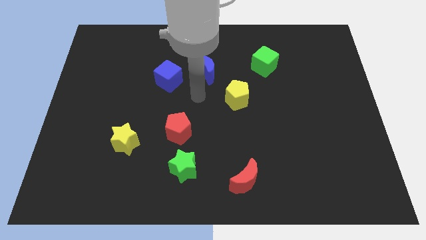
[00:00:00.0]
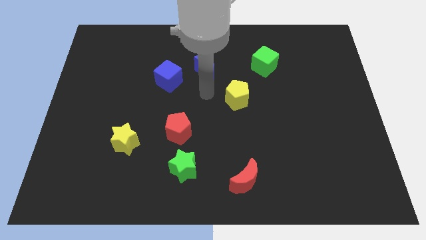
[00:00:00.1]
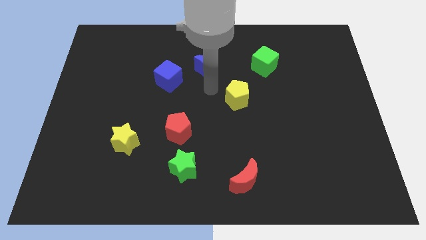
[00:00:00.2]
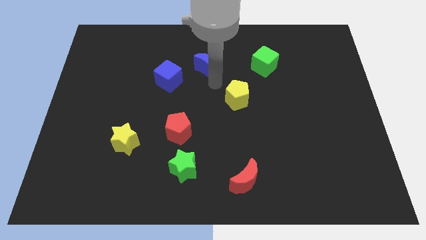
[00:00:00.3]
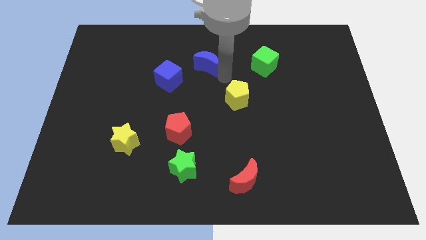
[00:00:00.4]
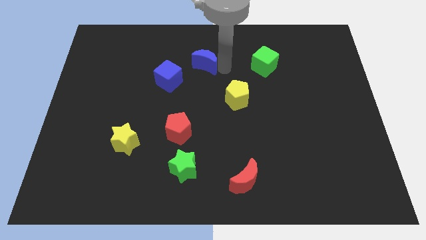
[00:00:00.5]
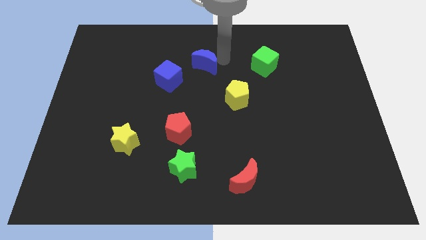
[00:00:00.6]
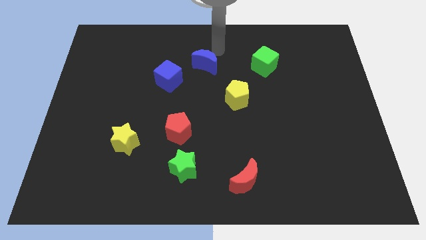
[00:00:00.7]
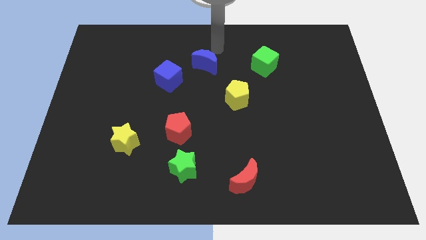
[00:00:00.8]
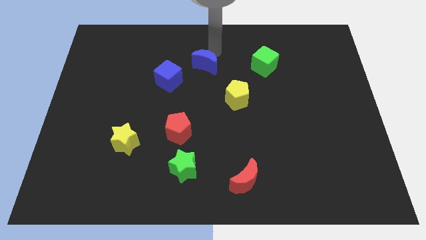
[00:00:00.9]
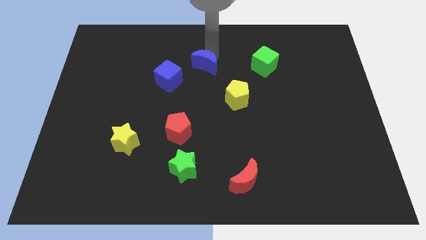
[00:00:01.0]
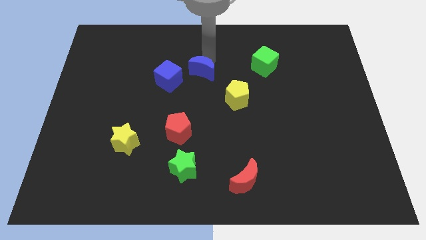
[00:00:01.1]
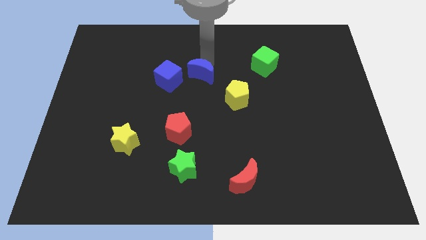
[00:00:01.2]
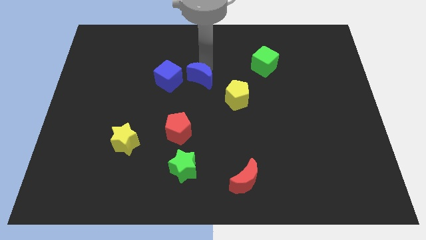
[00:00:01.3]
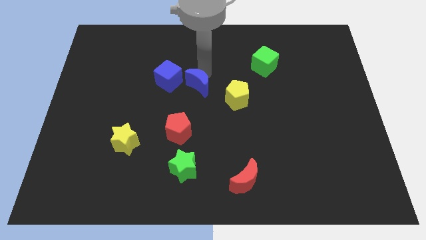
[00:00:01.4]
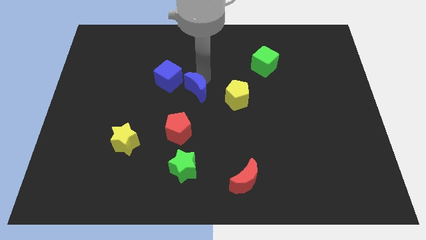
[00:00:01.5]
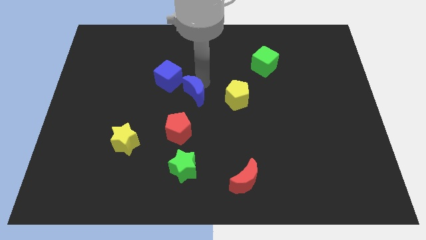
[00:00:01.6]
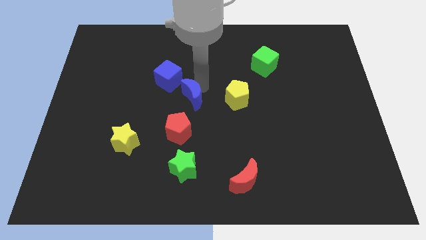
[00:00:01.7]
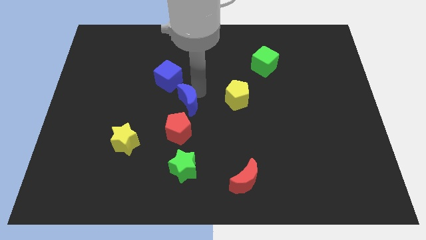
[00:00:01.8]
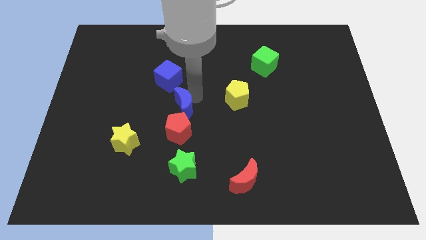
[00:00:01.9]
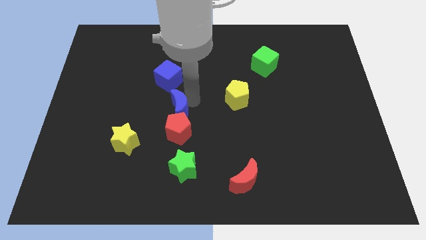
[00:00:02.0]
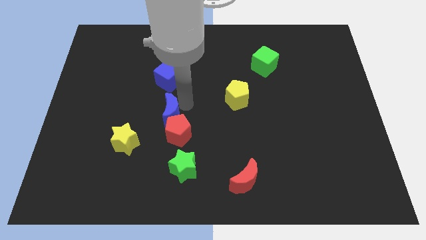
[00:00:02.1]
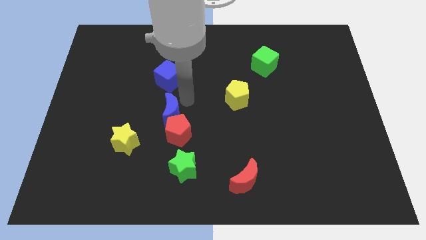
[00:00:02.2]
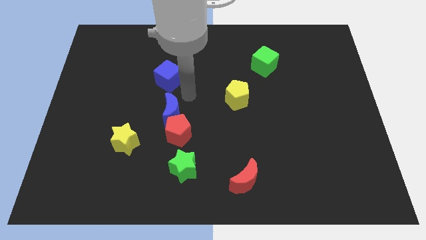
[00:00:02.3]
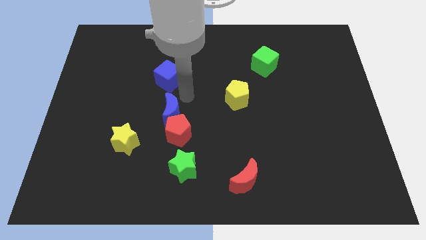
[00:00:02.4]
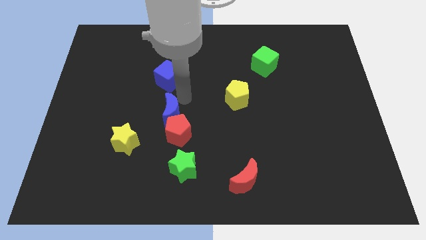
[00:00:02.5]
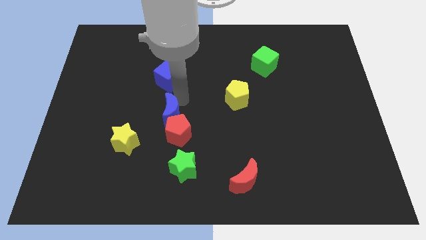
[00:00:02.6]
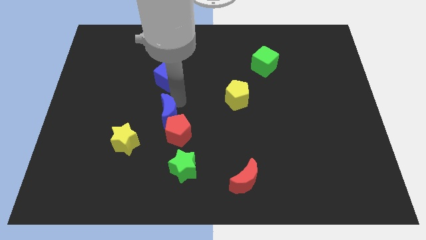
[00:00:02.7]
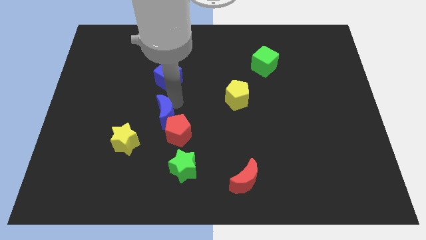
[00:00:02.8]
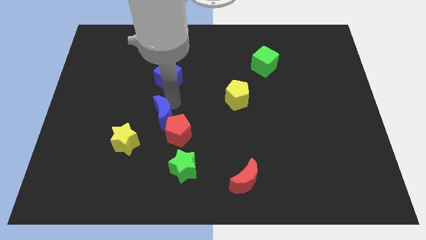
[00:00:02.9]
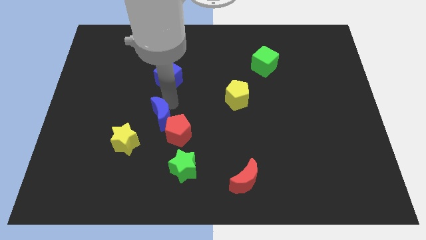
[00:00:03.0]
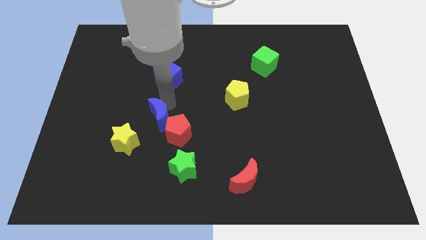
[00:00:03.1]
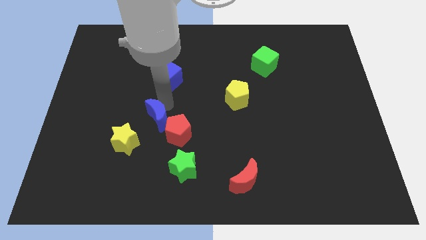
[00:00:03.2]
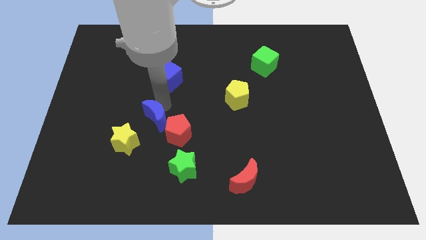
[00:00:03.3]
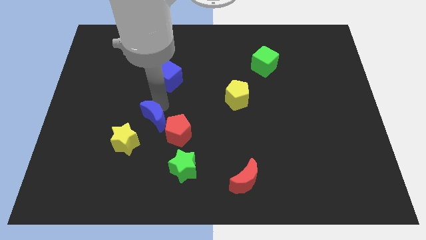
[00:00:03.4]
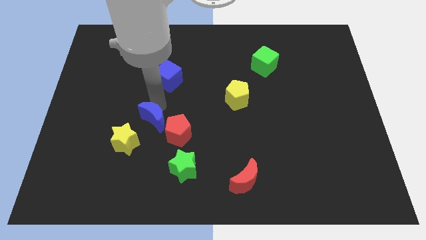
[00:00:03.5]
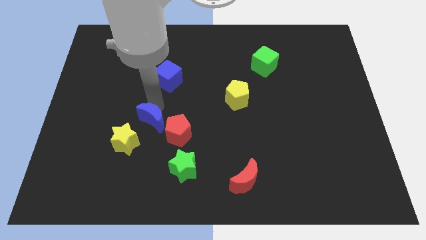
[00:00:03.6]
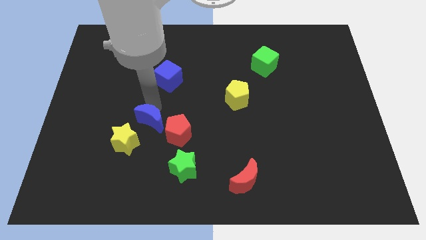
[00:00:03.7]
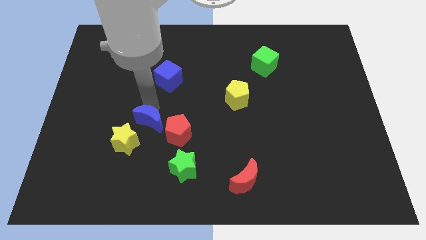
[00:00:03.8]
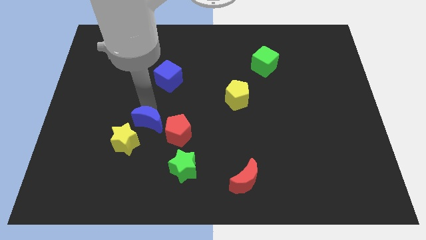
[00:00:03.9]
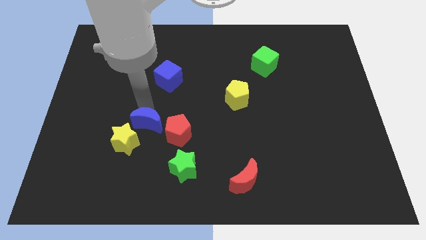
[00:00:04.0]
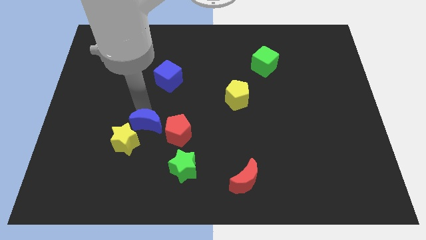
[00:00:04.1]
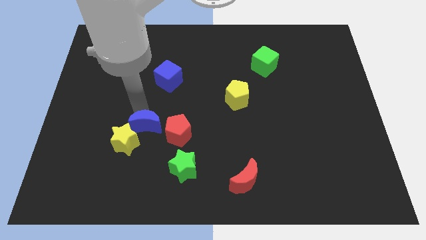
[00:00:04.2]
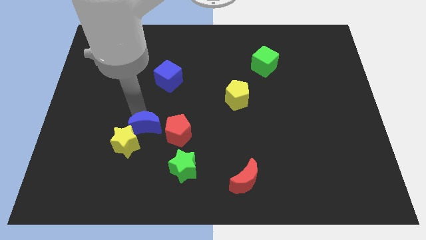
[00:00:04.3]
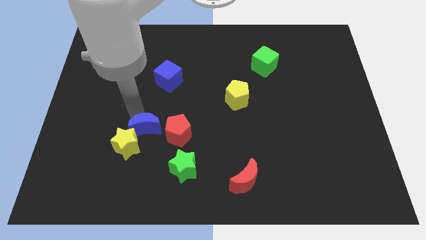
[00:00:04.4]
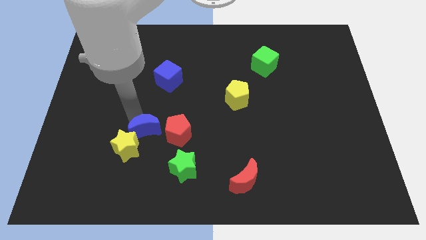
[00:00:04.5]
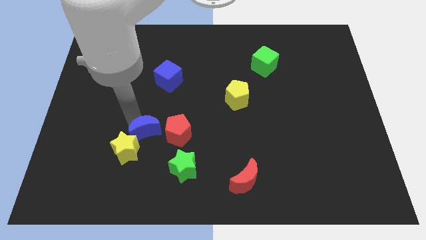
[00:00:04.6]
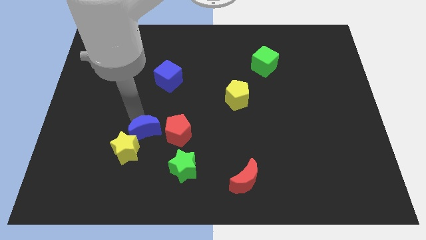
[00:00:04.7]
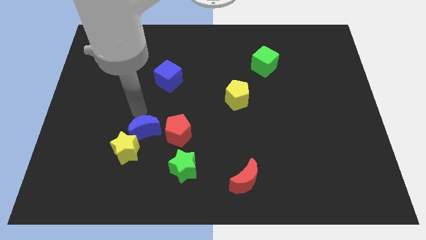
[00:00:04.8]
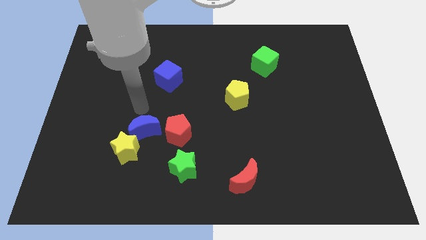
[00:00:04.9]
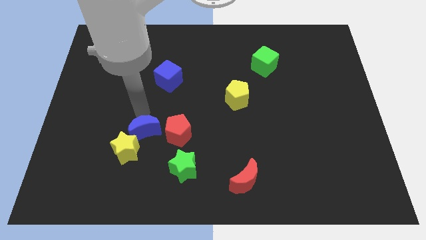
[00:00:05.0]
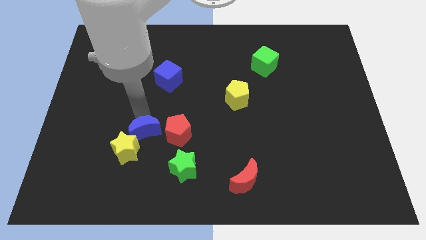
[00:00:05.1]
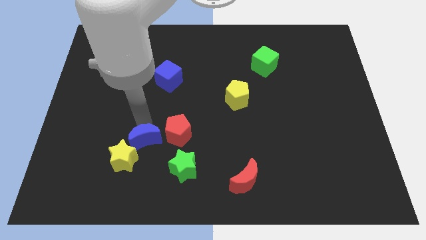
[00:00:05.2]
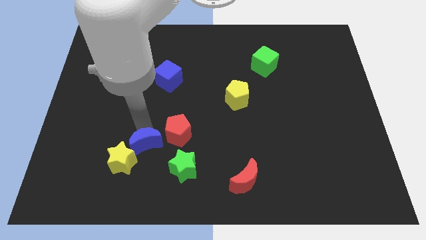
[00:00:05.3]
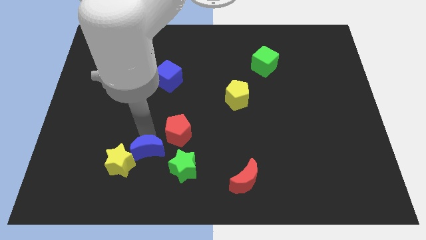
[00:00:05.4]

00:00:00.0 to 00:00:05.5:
slide the blue moon to the left side of the green star

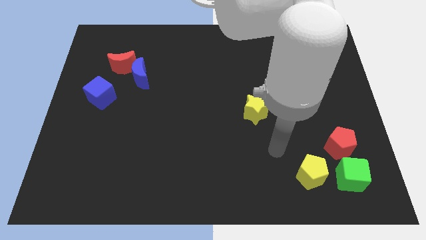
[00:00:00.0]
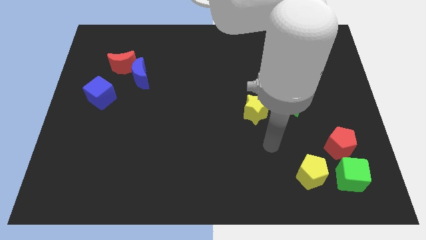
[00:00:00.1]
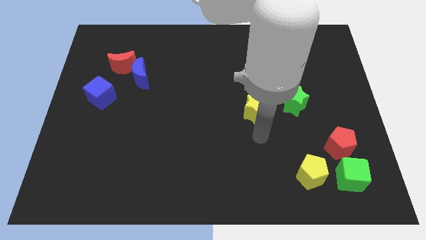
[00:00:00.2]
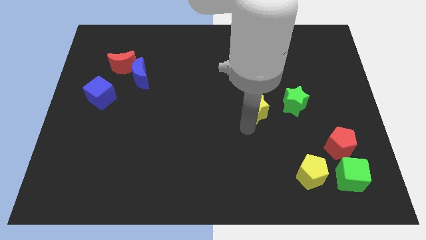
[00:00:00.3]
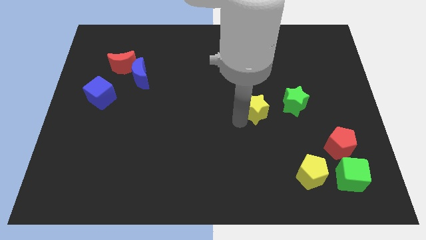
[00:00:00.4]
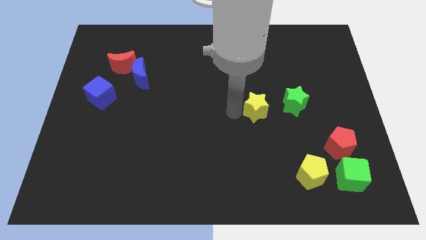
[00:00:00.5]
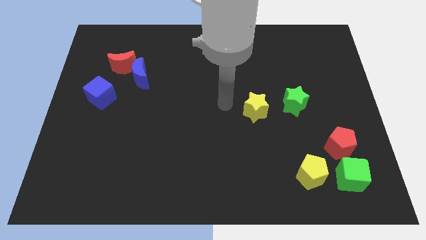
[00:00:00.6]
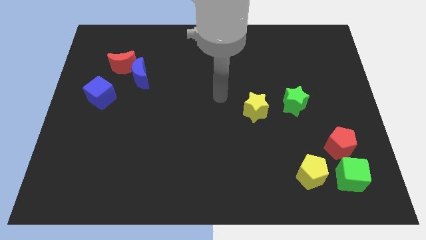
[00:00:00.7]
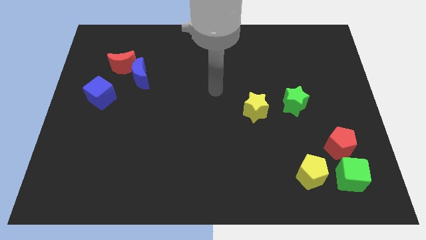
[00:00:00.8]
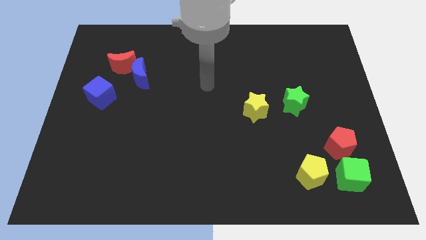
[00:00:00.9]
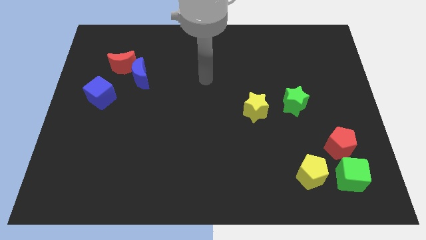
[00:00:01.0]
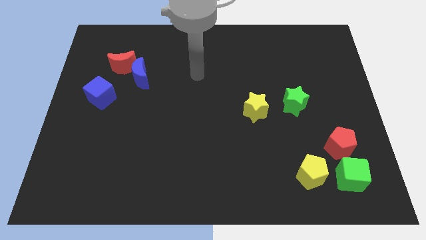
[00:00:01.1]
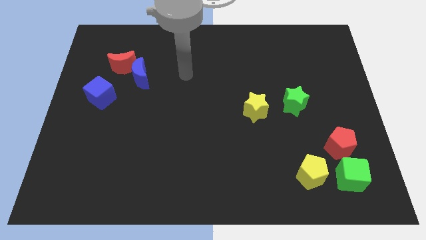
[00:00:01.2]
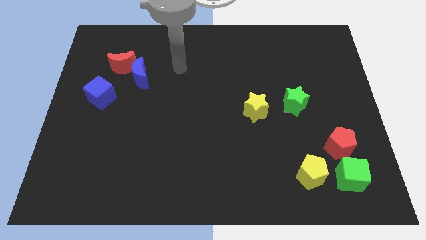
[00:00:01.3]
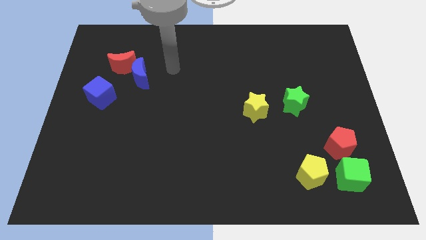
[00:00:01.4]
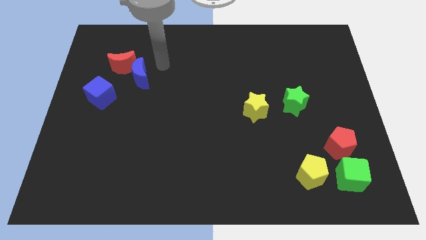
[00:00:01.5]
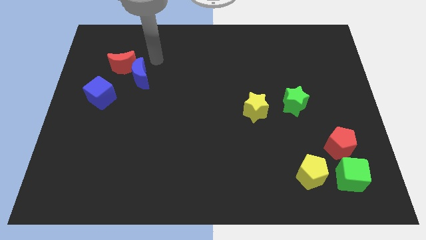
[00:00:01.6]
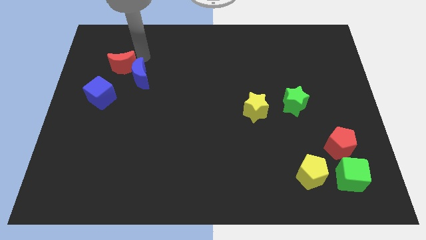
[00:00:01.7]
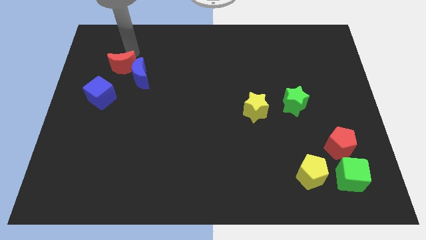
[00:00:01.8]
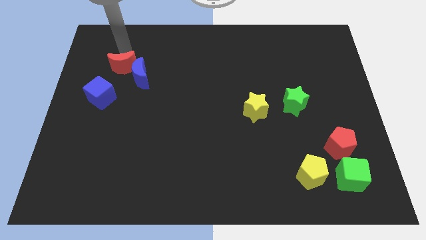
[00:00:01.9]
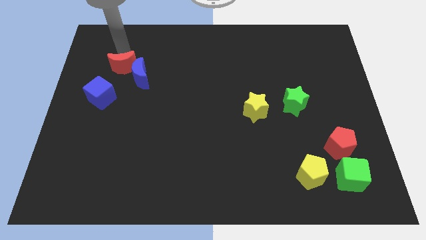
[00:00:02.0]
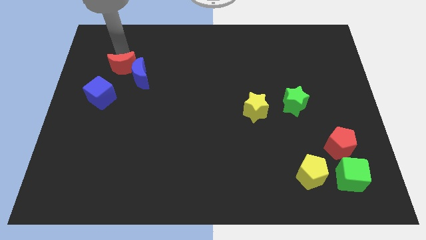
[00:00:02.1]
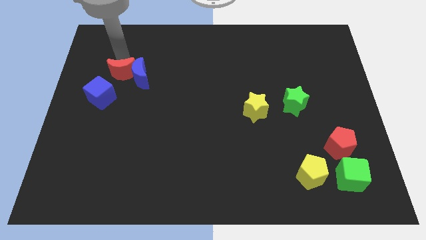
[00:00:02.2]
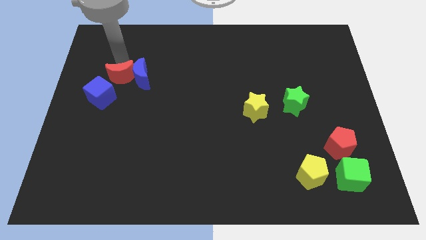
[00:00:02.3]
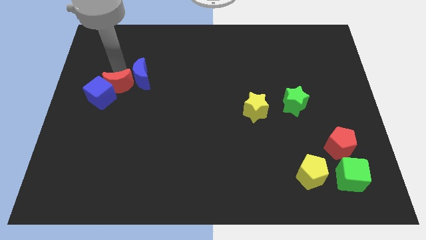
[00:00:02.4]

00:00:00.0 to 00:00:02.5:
put the red moon just right of the blue cube
